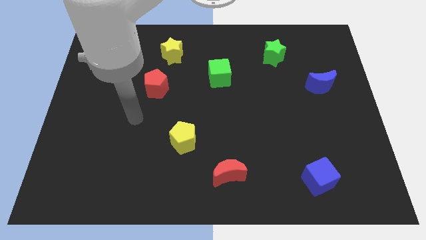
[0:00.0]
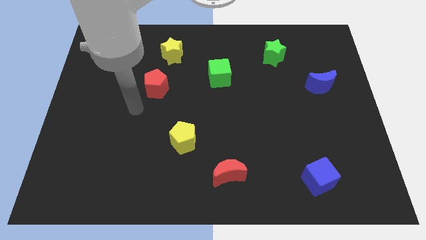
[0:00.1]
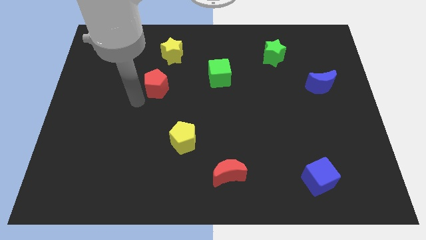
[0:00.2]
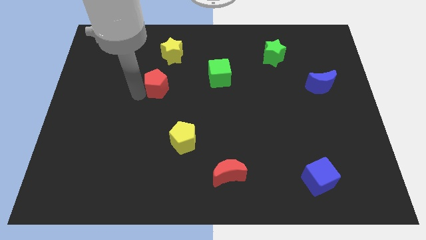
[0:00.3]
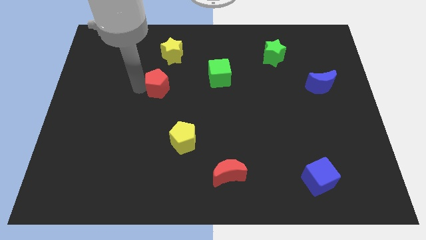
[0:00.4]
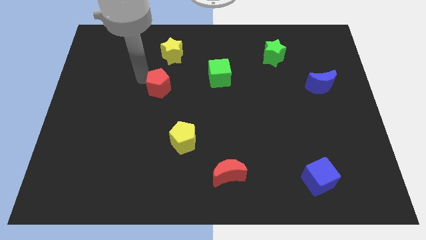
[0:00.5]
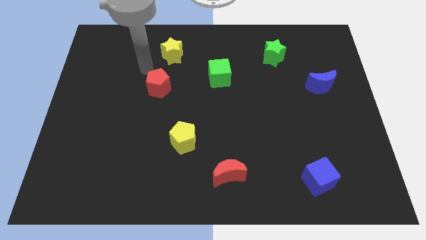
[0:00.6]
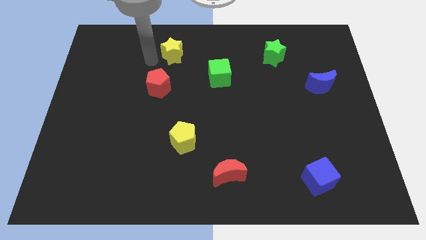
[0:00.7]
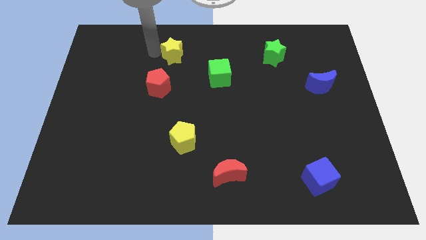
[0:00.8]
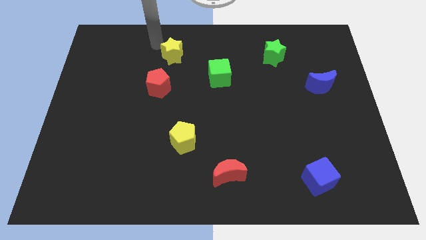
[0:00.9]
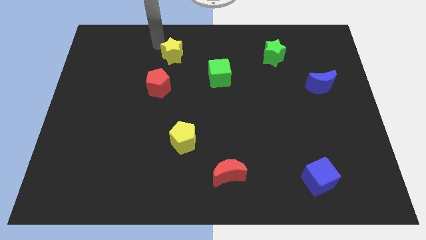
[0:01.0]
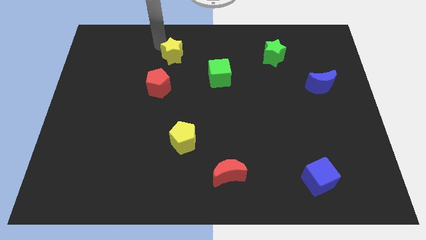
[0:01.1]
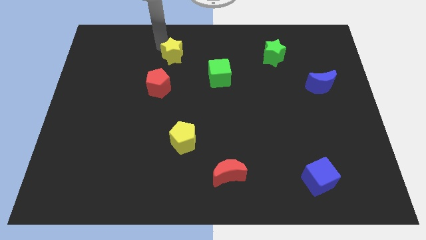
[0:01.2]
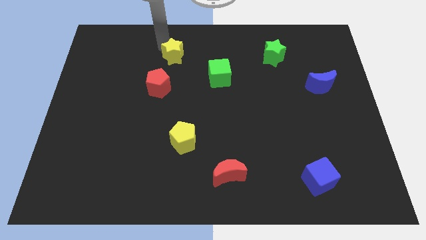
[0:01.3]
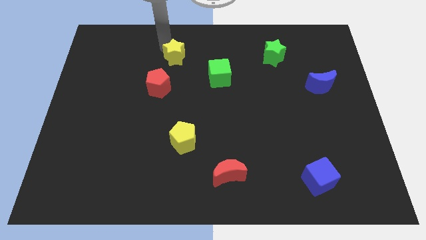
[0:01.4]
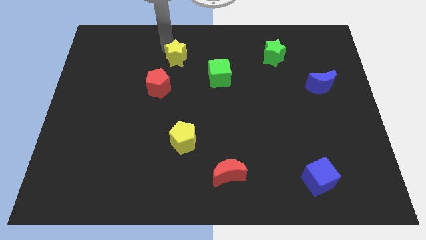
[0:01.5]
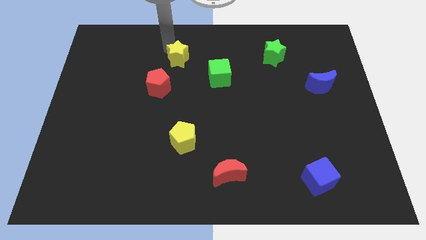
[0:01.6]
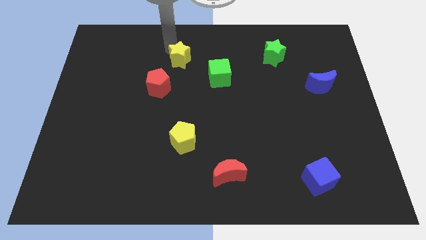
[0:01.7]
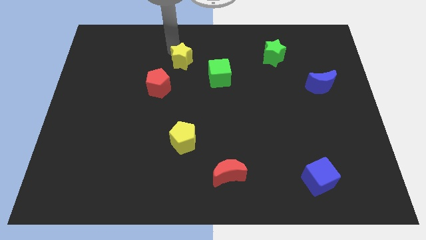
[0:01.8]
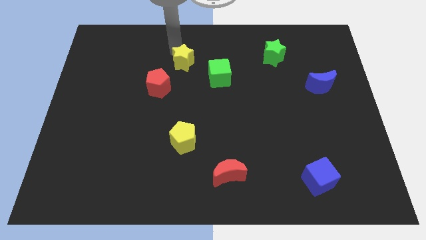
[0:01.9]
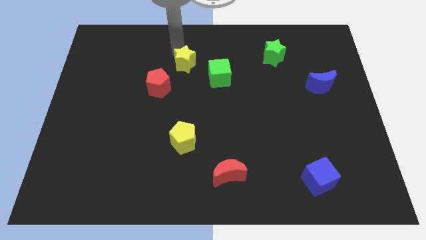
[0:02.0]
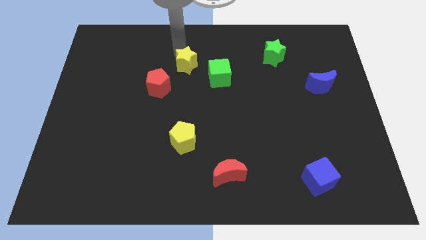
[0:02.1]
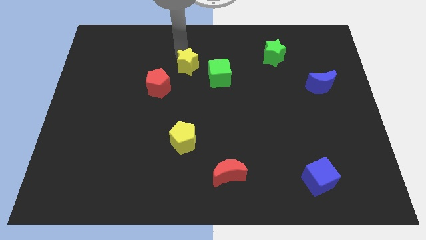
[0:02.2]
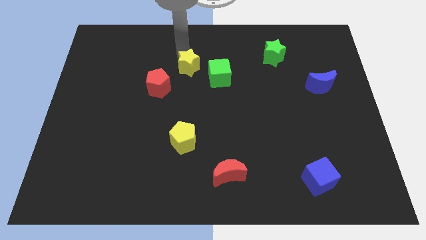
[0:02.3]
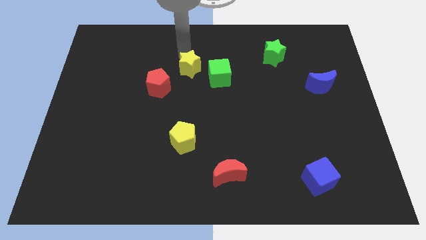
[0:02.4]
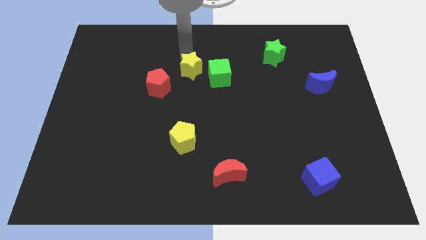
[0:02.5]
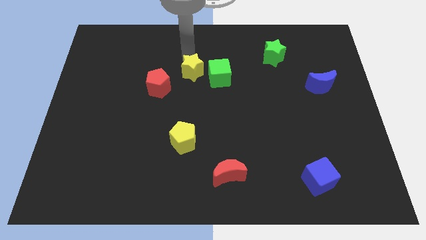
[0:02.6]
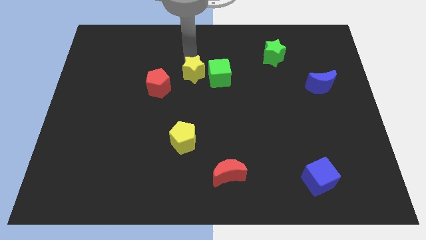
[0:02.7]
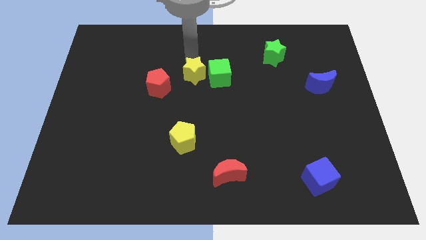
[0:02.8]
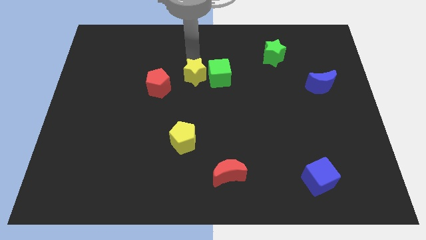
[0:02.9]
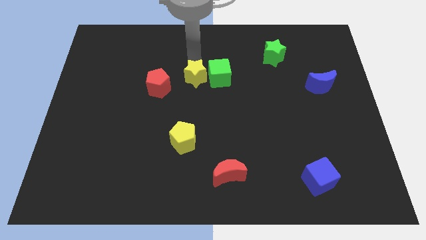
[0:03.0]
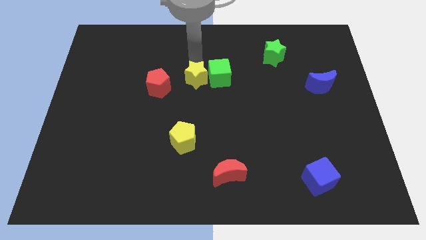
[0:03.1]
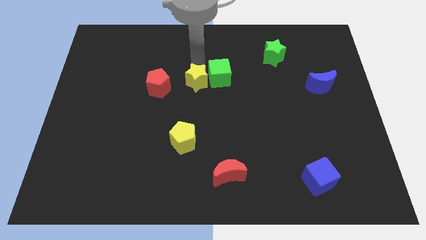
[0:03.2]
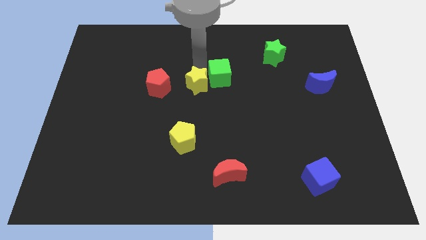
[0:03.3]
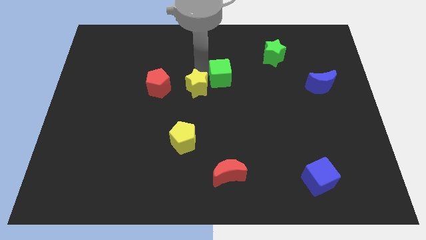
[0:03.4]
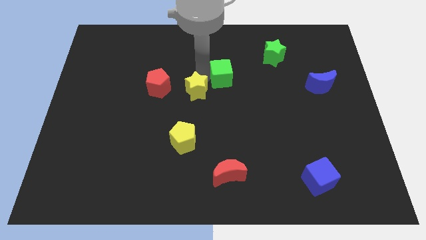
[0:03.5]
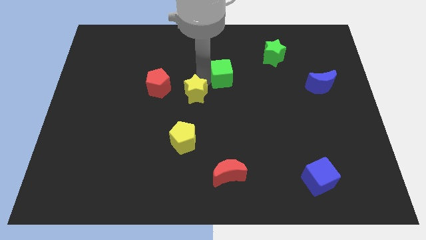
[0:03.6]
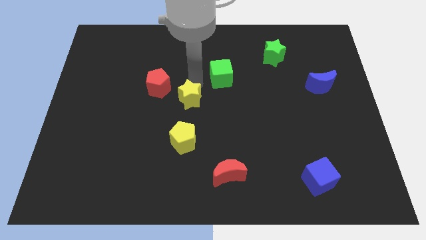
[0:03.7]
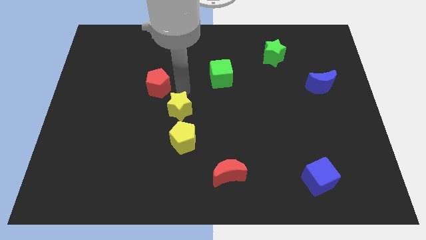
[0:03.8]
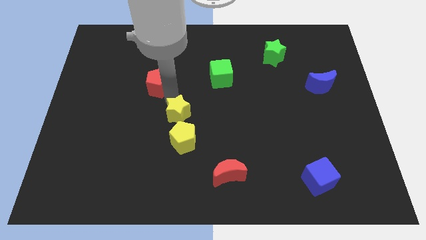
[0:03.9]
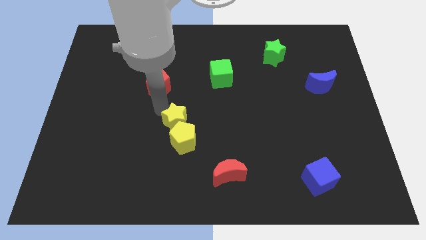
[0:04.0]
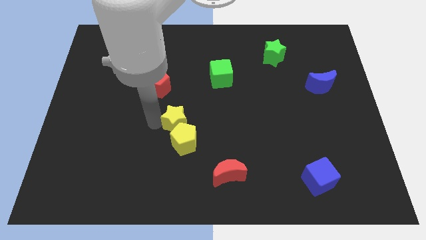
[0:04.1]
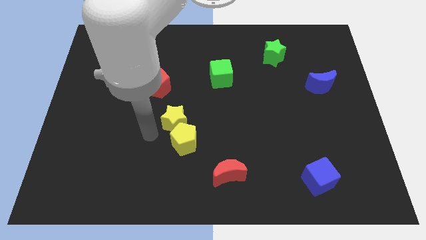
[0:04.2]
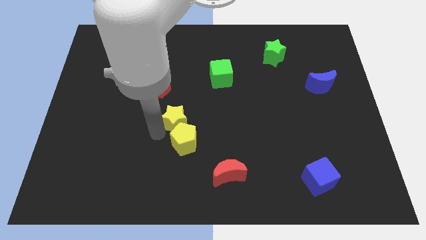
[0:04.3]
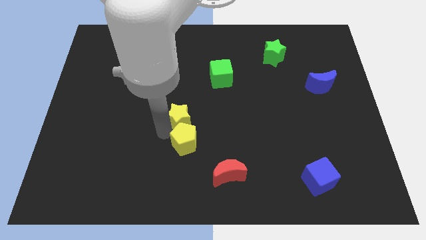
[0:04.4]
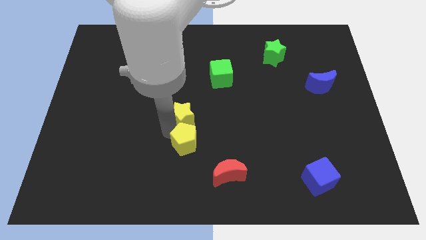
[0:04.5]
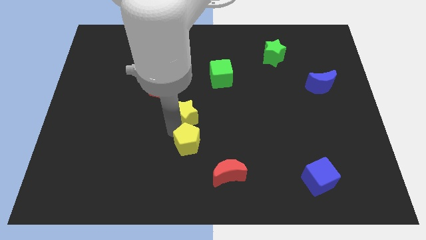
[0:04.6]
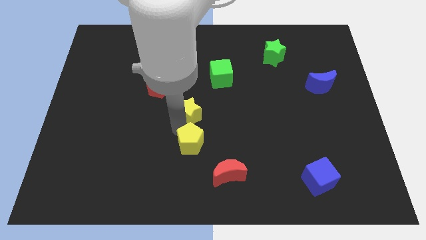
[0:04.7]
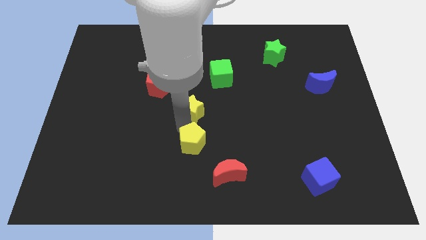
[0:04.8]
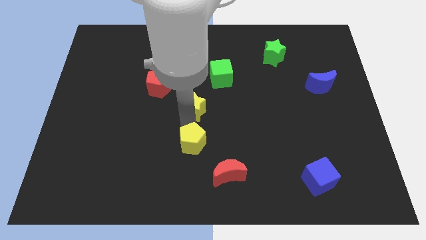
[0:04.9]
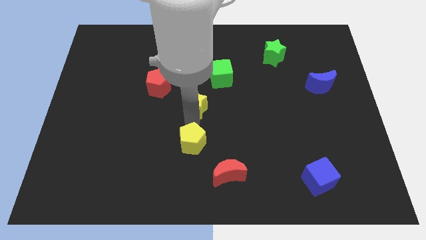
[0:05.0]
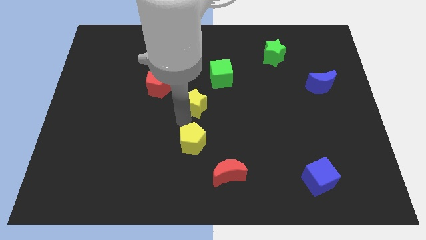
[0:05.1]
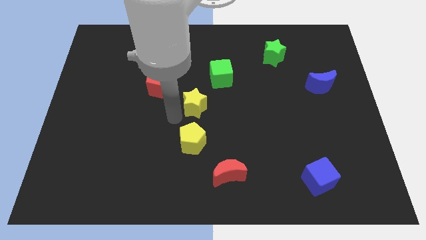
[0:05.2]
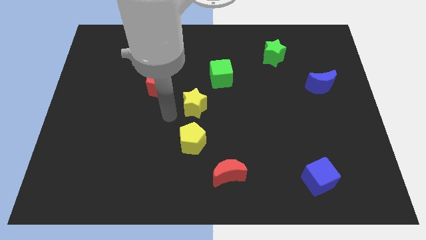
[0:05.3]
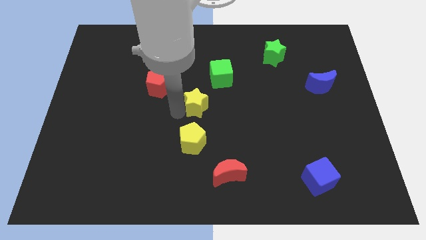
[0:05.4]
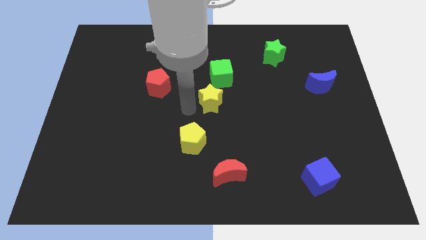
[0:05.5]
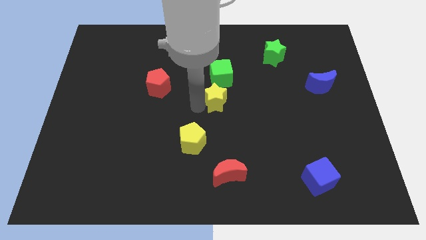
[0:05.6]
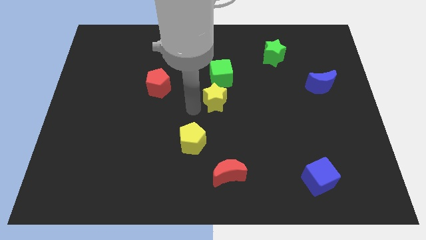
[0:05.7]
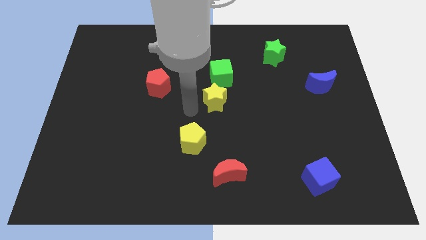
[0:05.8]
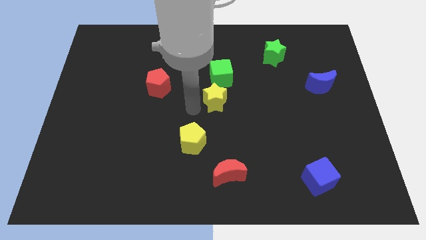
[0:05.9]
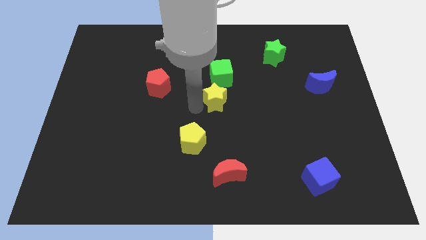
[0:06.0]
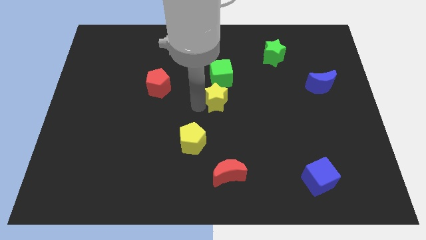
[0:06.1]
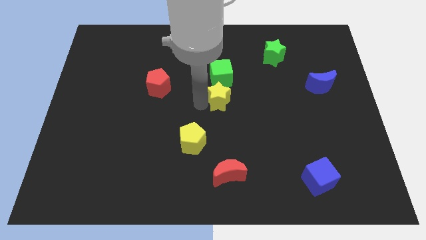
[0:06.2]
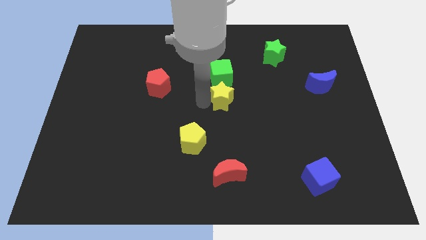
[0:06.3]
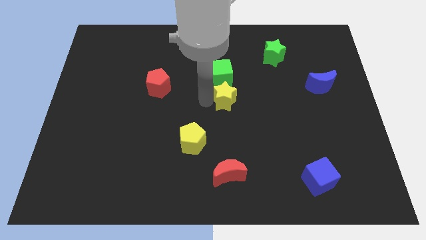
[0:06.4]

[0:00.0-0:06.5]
move the yellow star to the bottom right side of the green cube

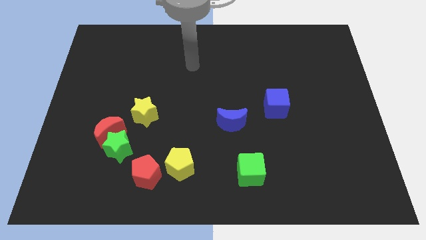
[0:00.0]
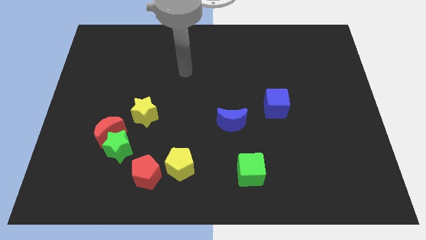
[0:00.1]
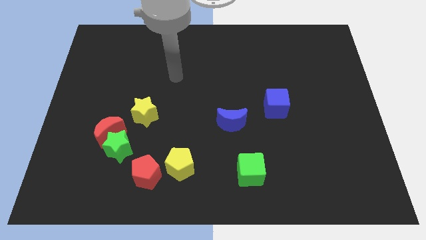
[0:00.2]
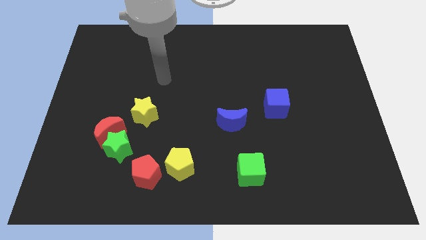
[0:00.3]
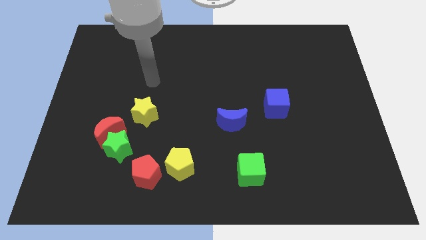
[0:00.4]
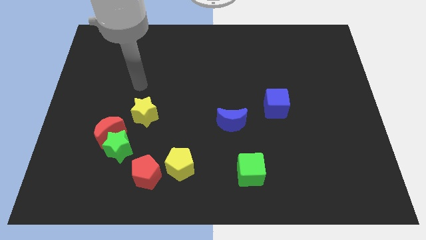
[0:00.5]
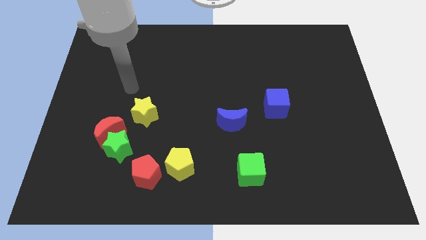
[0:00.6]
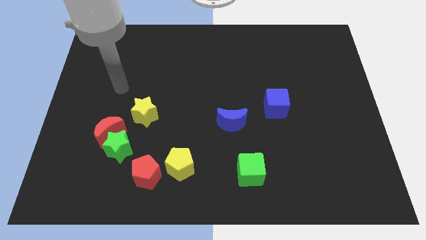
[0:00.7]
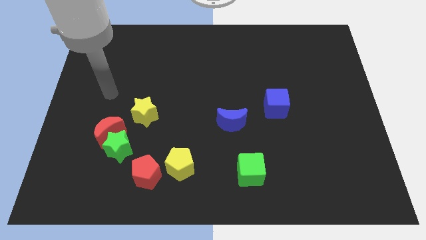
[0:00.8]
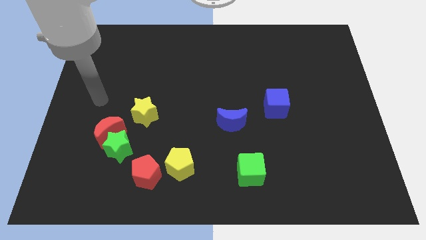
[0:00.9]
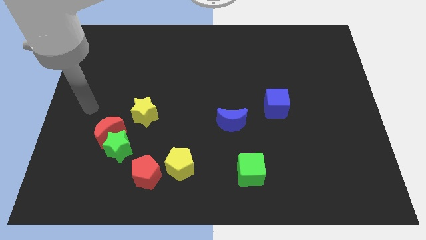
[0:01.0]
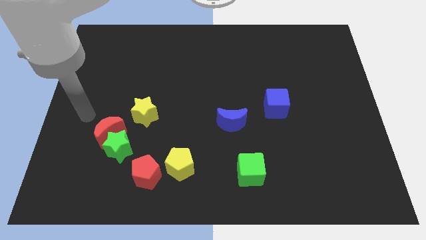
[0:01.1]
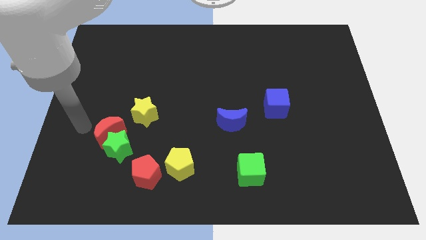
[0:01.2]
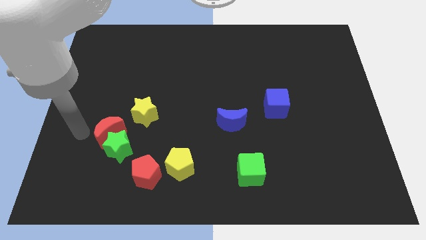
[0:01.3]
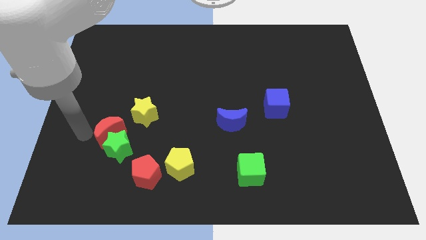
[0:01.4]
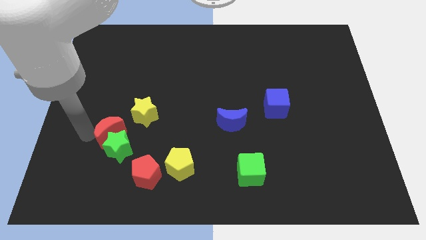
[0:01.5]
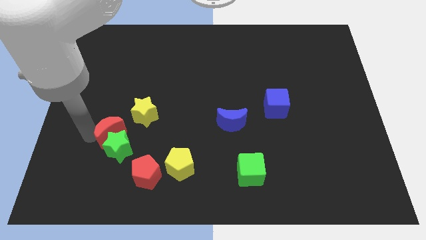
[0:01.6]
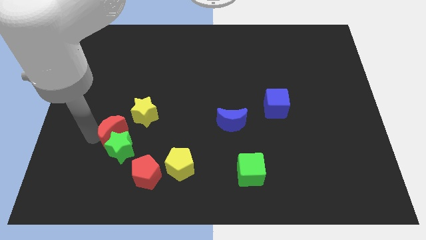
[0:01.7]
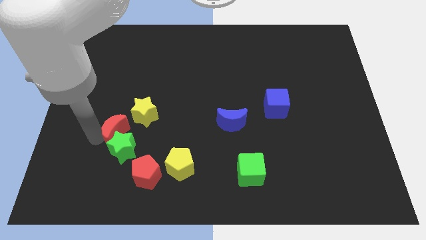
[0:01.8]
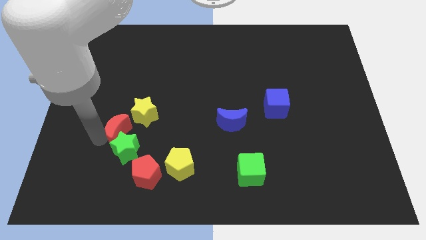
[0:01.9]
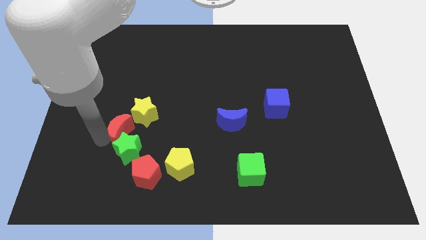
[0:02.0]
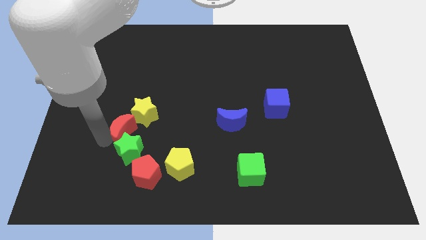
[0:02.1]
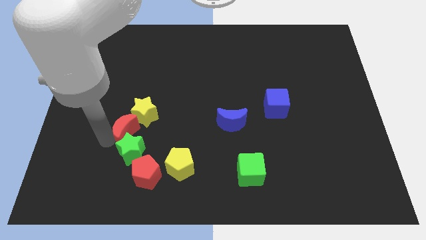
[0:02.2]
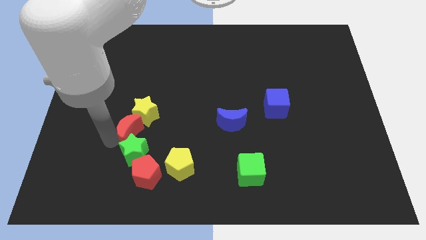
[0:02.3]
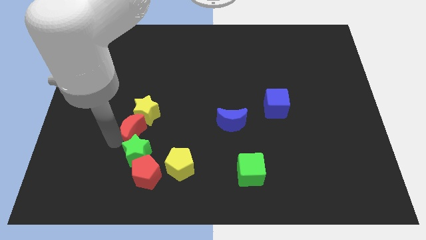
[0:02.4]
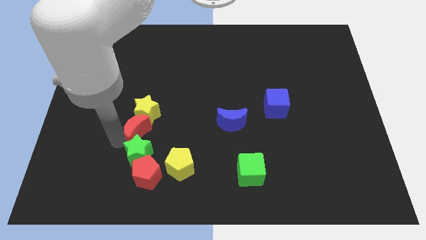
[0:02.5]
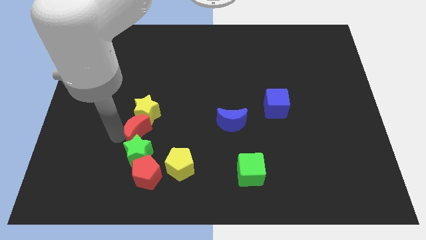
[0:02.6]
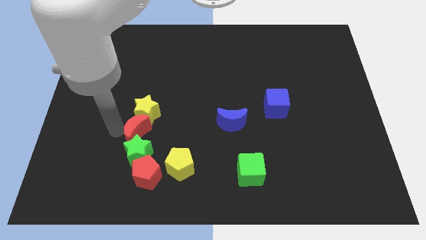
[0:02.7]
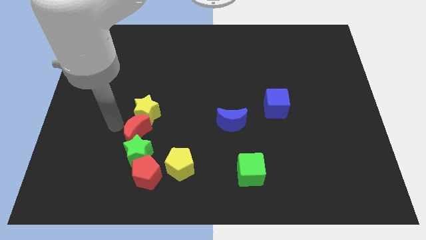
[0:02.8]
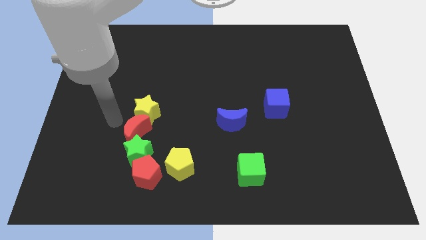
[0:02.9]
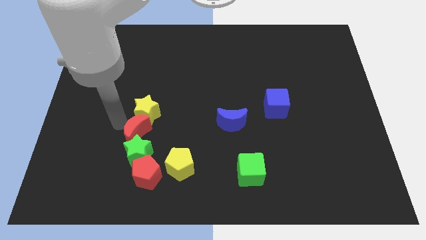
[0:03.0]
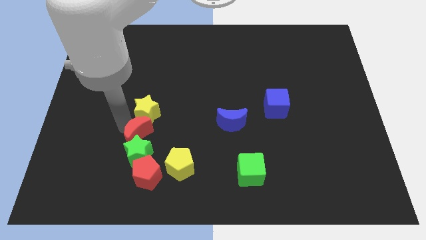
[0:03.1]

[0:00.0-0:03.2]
push the red moon to the top left side of the yellow pentagon
